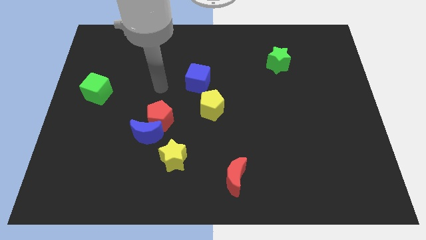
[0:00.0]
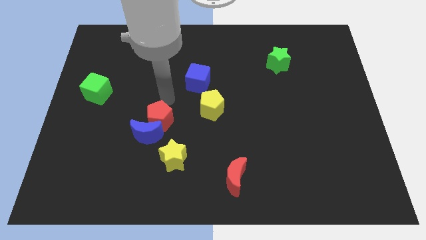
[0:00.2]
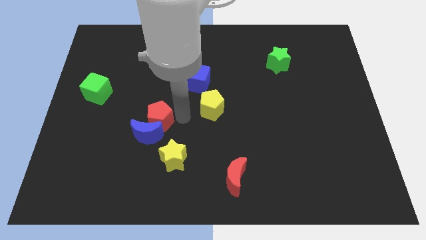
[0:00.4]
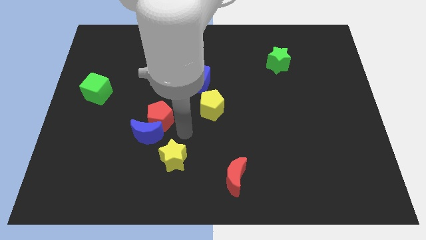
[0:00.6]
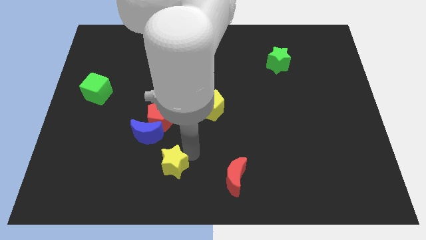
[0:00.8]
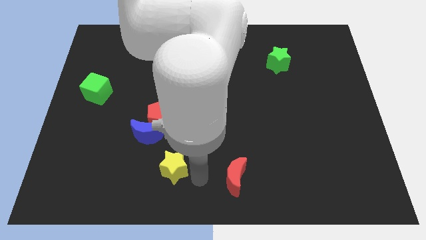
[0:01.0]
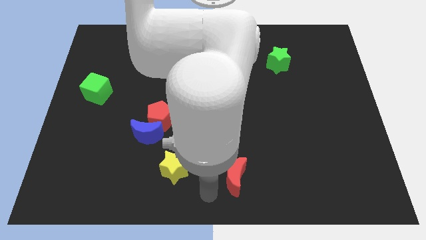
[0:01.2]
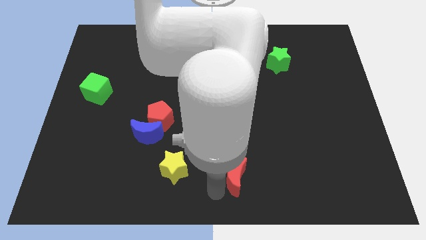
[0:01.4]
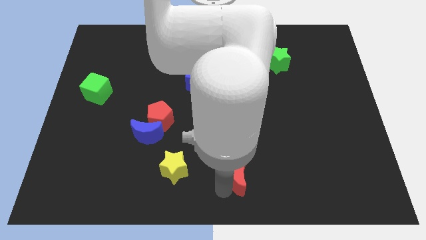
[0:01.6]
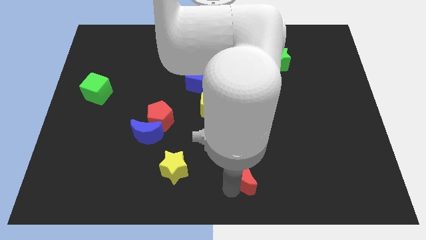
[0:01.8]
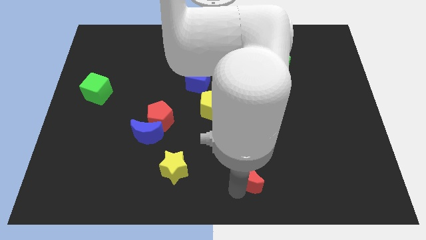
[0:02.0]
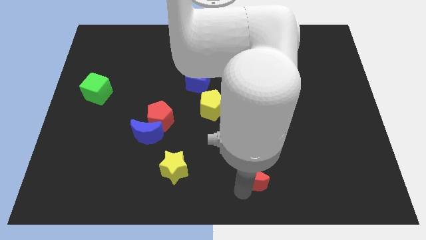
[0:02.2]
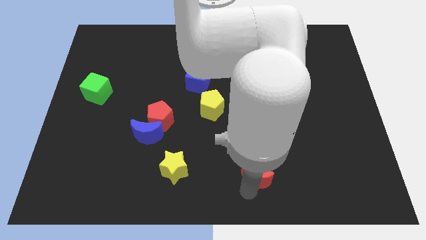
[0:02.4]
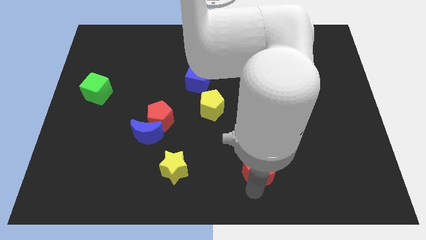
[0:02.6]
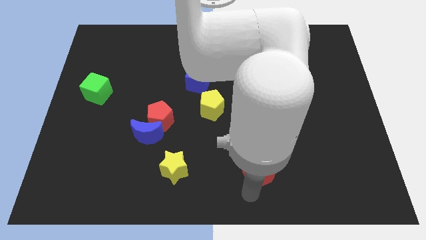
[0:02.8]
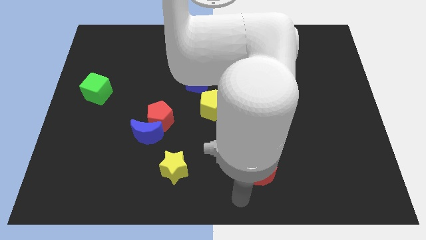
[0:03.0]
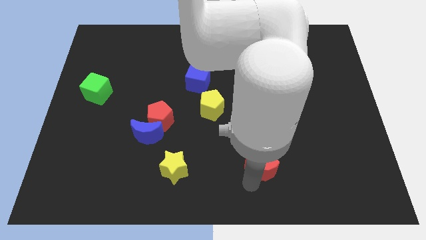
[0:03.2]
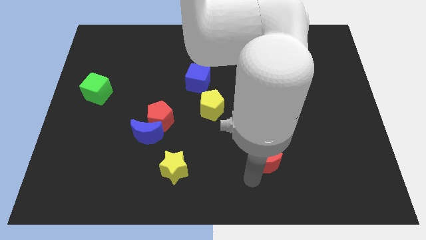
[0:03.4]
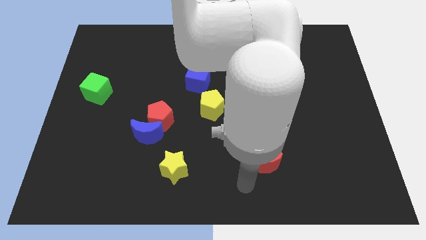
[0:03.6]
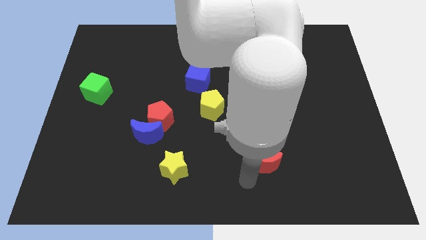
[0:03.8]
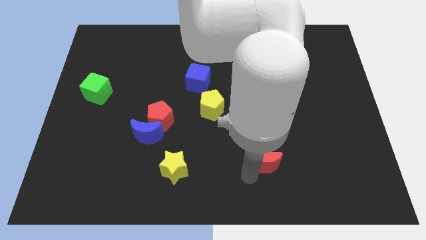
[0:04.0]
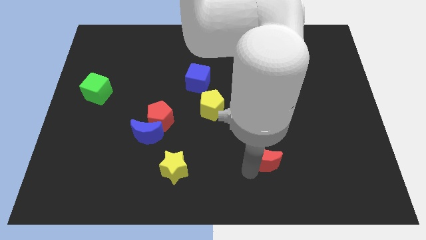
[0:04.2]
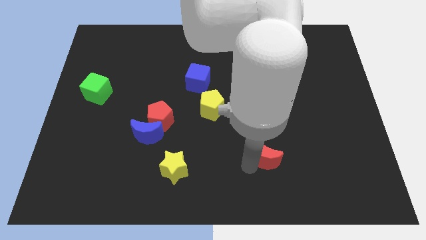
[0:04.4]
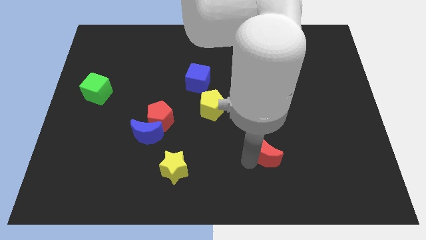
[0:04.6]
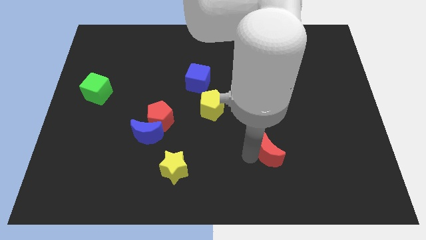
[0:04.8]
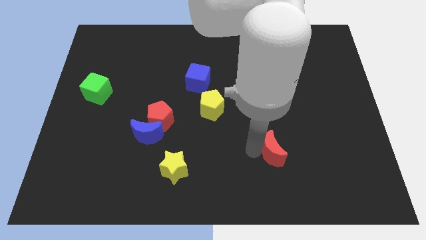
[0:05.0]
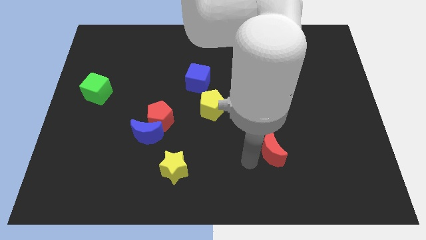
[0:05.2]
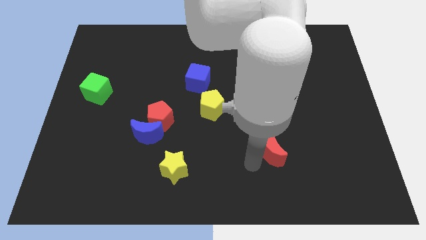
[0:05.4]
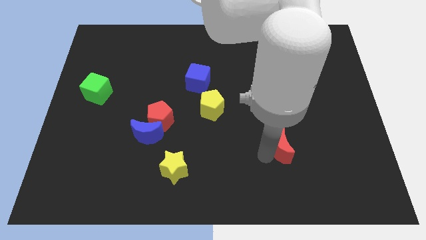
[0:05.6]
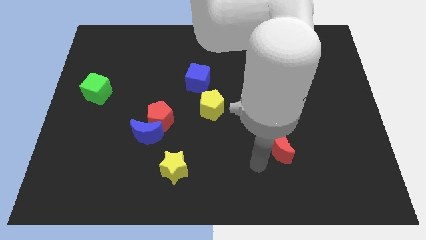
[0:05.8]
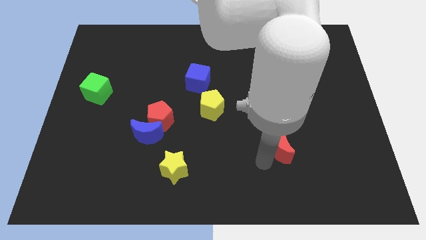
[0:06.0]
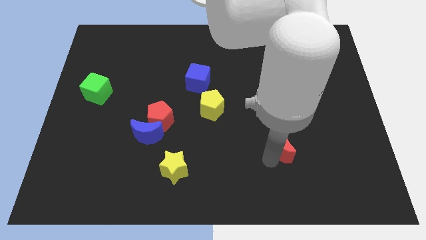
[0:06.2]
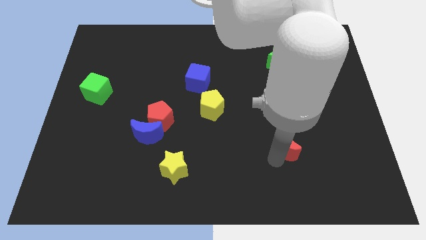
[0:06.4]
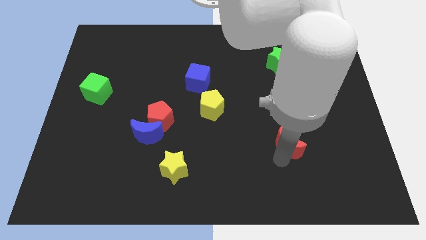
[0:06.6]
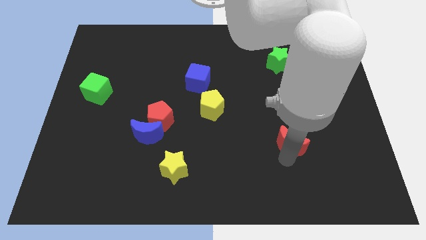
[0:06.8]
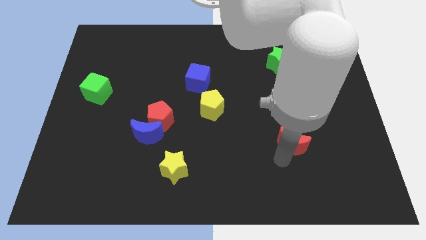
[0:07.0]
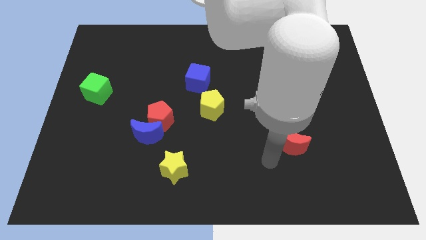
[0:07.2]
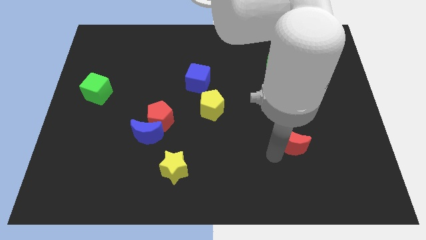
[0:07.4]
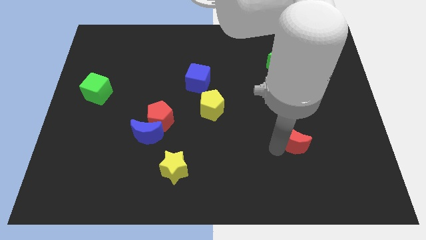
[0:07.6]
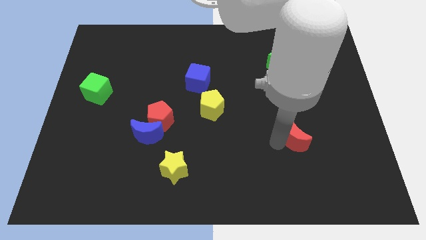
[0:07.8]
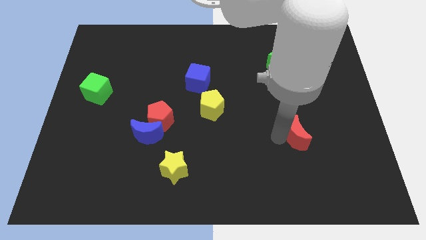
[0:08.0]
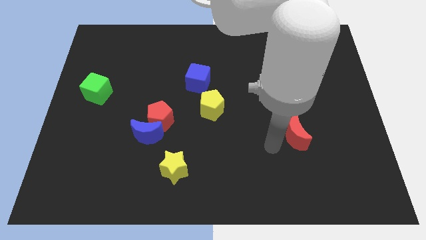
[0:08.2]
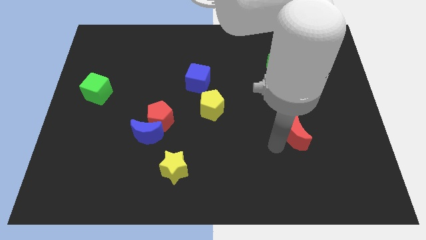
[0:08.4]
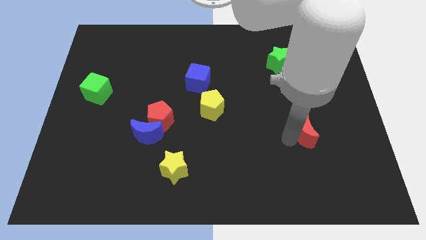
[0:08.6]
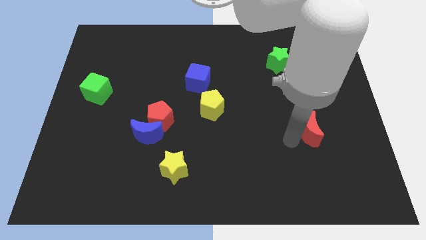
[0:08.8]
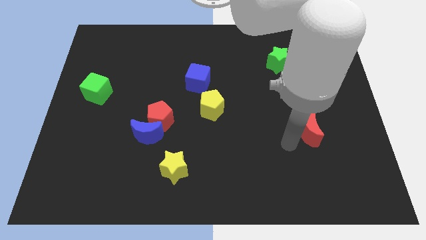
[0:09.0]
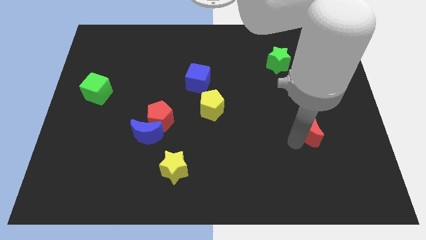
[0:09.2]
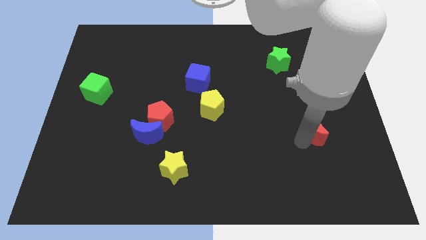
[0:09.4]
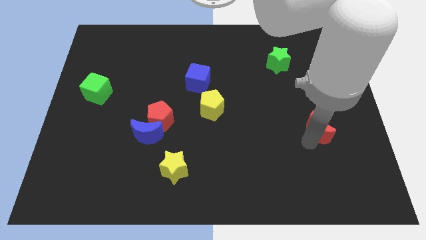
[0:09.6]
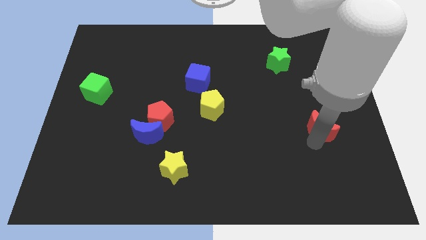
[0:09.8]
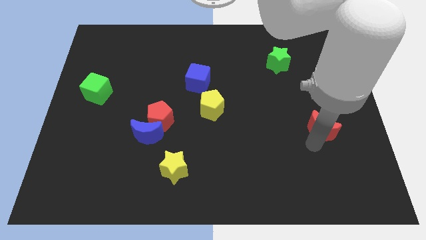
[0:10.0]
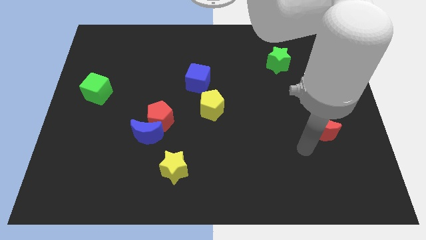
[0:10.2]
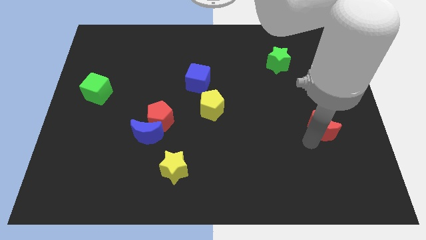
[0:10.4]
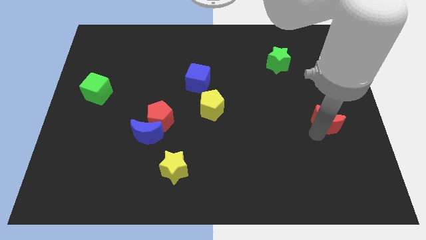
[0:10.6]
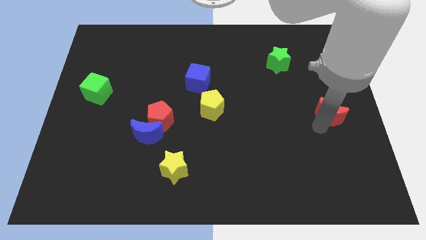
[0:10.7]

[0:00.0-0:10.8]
slide the red moon to the right side of the board
